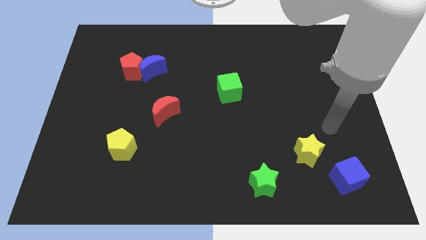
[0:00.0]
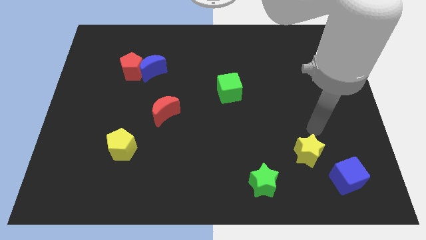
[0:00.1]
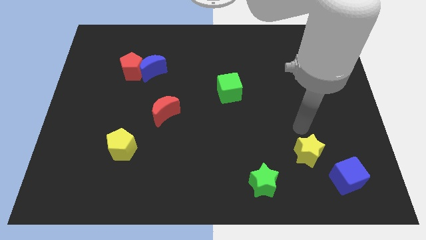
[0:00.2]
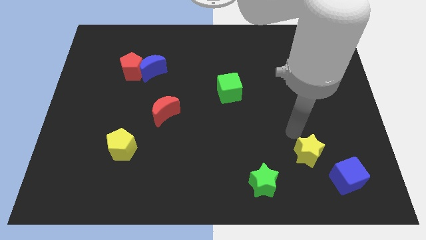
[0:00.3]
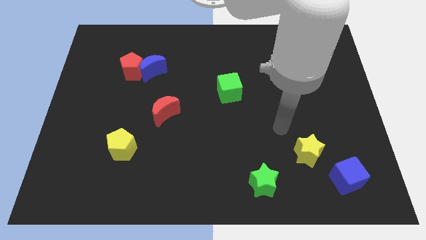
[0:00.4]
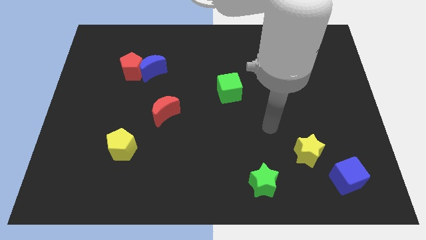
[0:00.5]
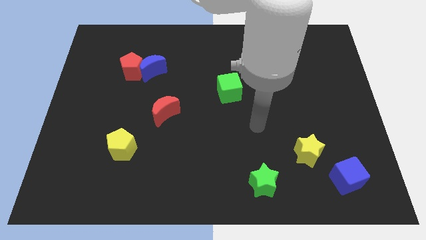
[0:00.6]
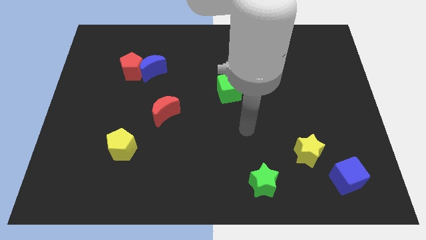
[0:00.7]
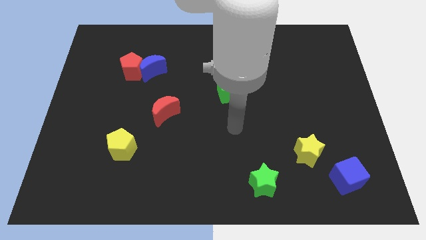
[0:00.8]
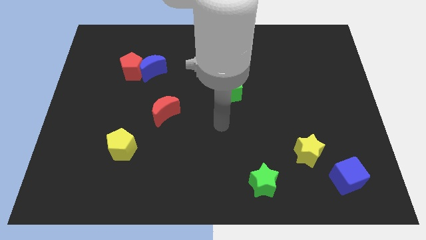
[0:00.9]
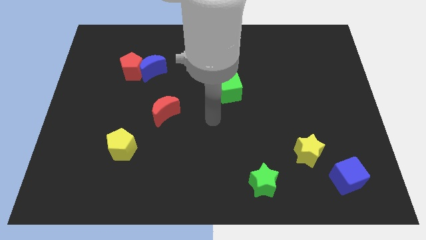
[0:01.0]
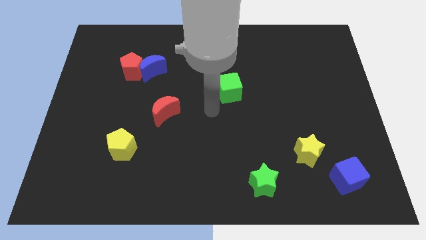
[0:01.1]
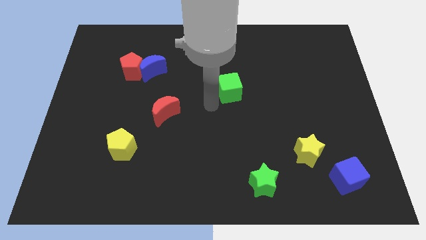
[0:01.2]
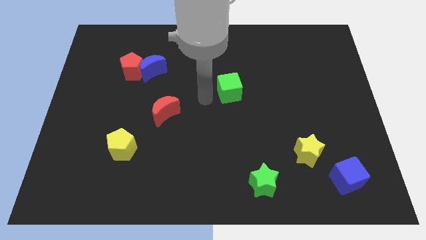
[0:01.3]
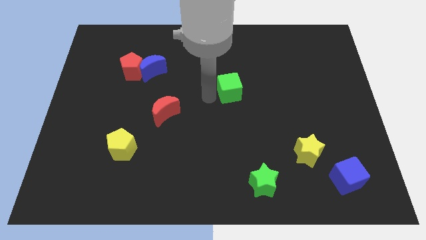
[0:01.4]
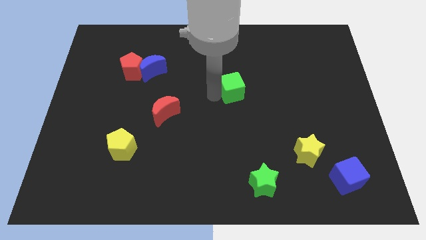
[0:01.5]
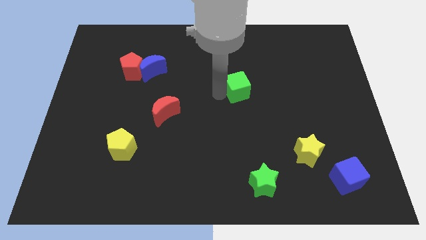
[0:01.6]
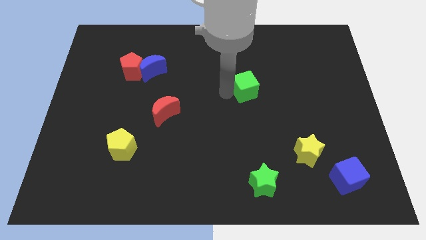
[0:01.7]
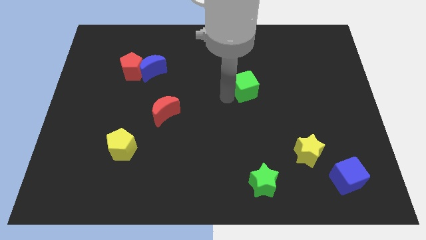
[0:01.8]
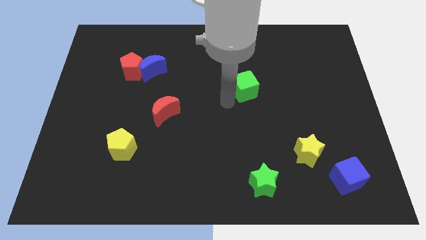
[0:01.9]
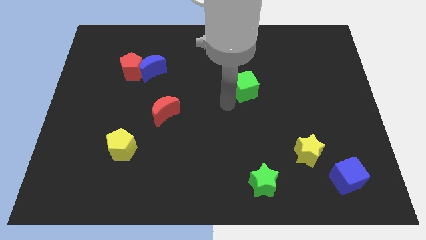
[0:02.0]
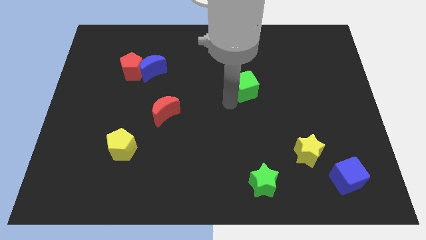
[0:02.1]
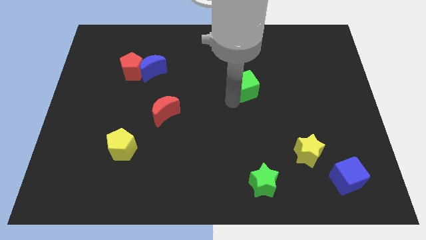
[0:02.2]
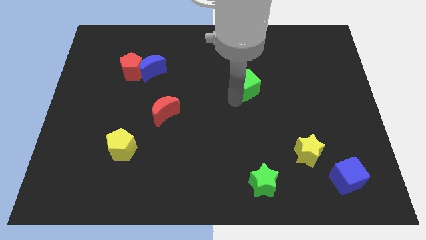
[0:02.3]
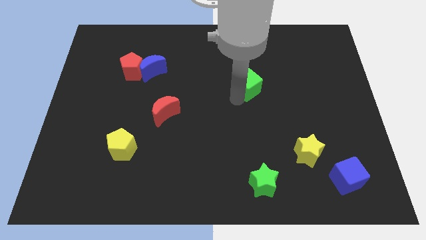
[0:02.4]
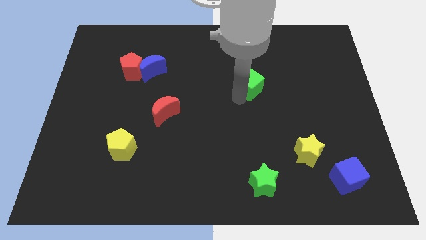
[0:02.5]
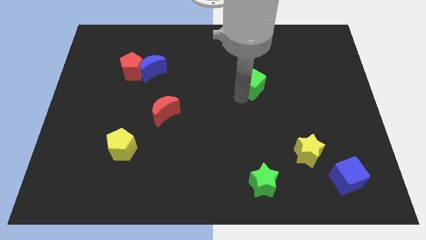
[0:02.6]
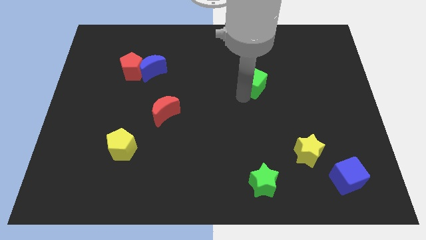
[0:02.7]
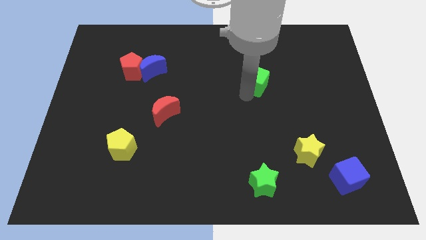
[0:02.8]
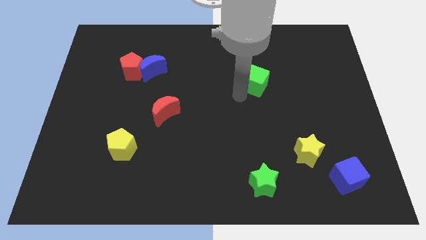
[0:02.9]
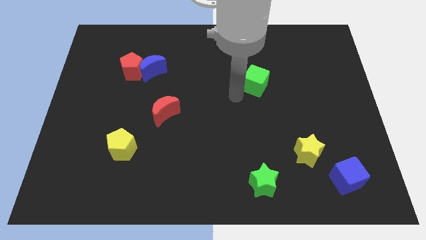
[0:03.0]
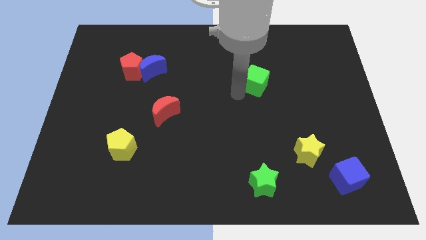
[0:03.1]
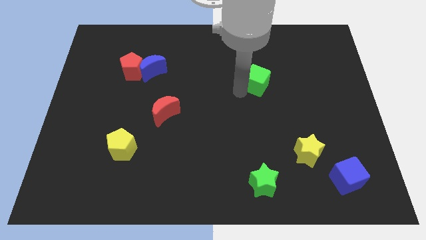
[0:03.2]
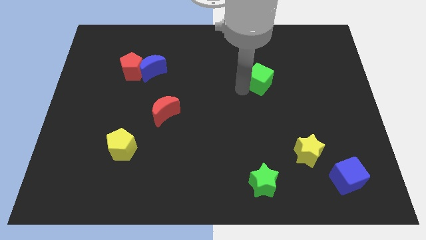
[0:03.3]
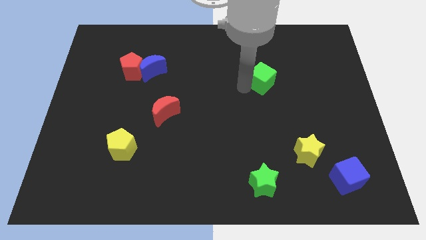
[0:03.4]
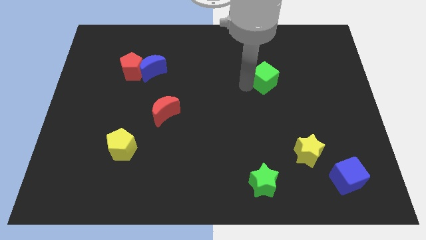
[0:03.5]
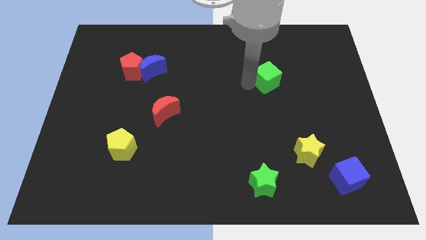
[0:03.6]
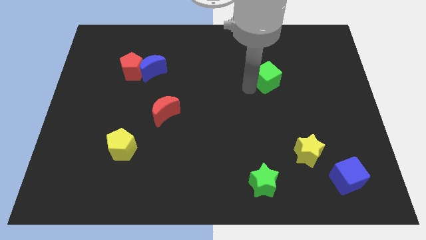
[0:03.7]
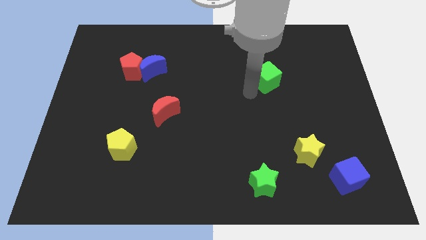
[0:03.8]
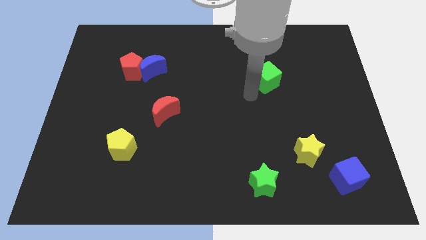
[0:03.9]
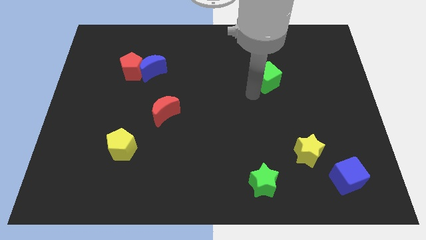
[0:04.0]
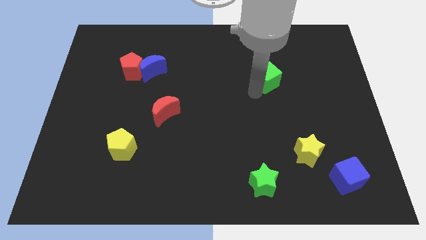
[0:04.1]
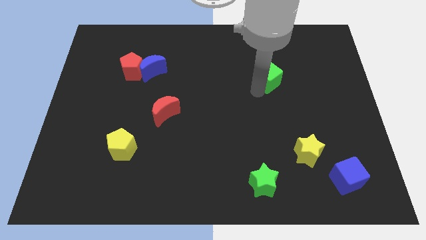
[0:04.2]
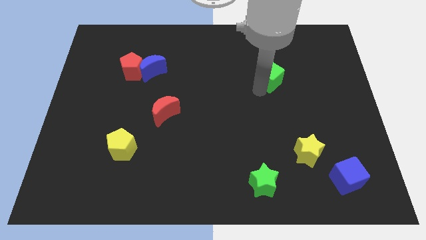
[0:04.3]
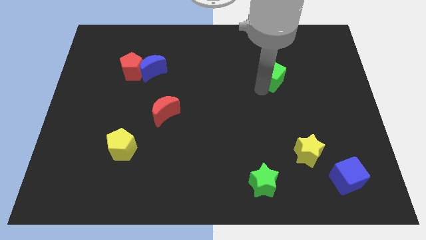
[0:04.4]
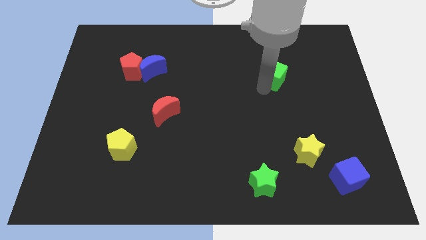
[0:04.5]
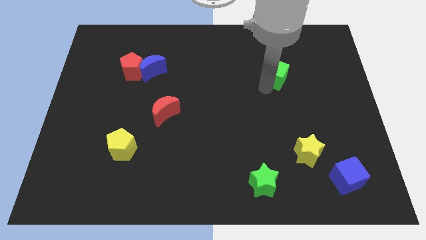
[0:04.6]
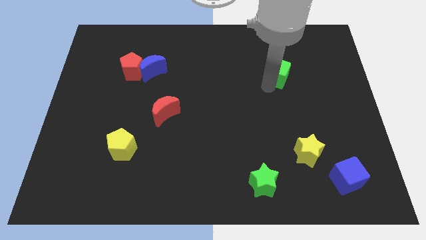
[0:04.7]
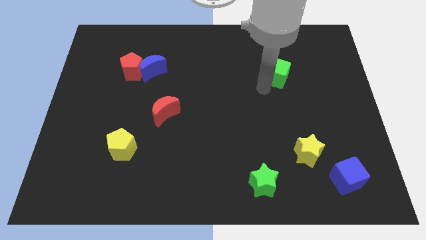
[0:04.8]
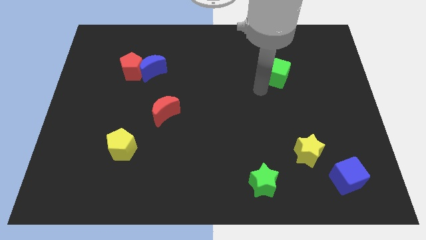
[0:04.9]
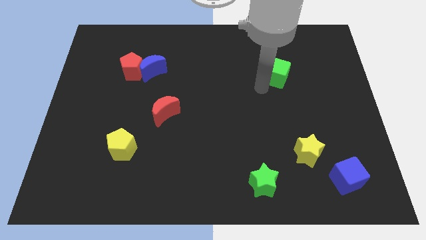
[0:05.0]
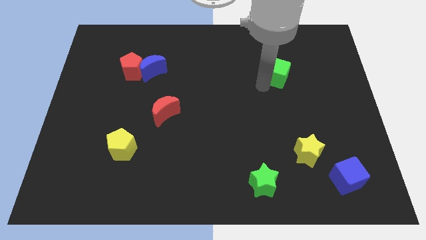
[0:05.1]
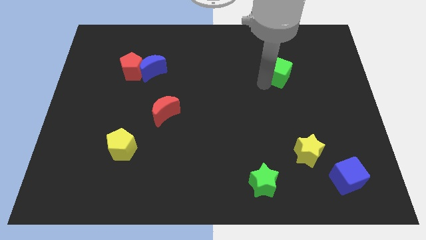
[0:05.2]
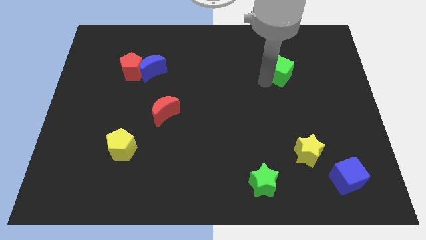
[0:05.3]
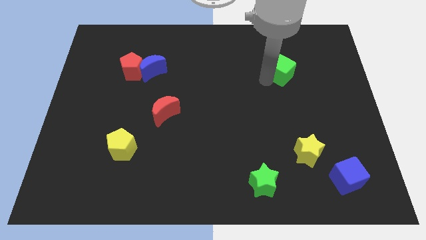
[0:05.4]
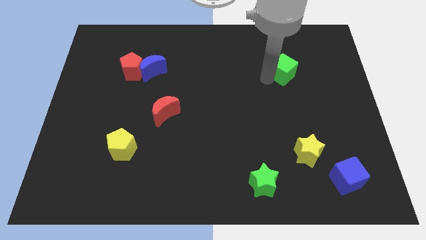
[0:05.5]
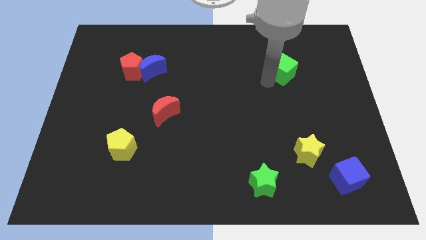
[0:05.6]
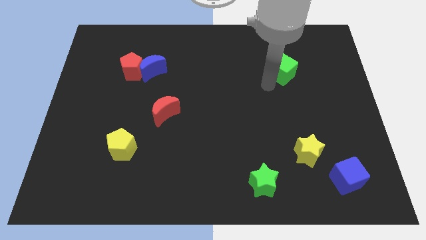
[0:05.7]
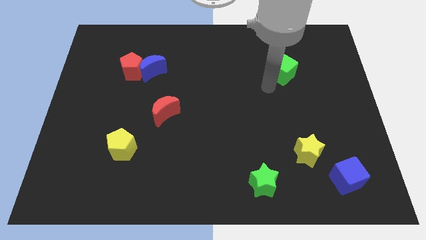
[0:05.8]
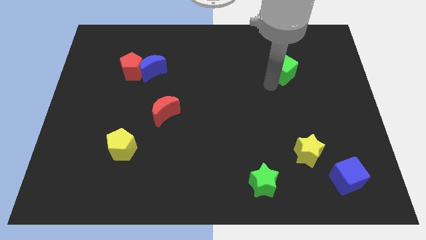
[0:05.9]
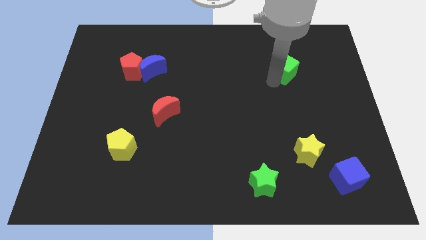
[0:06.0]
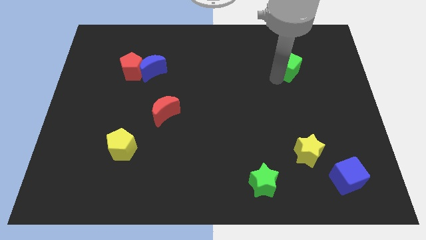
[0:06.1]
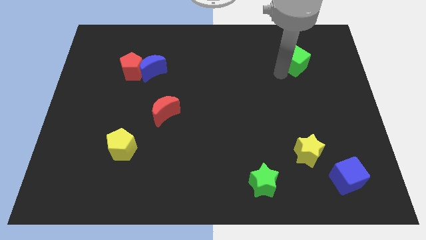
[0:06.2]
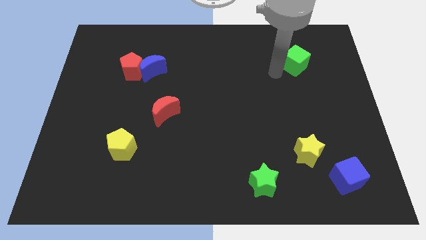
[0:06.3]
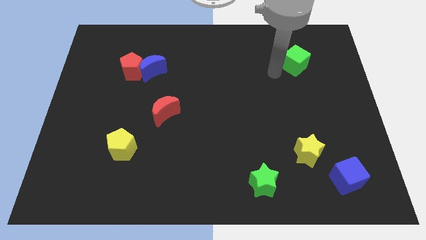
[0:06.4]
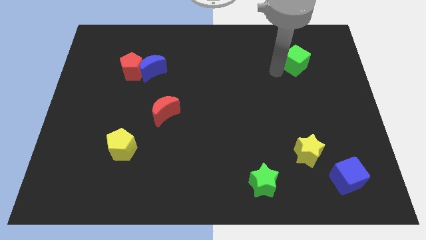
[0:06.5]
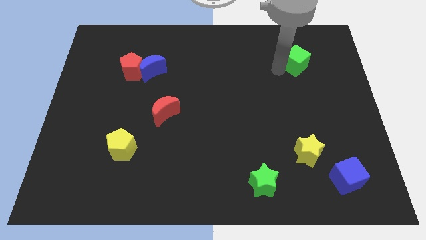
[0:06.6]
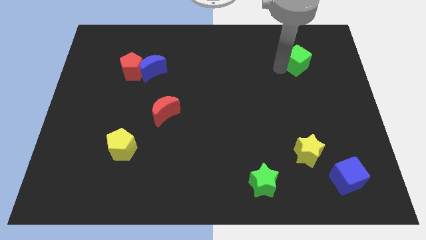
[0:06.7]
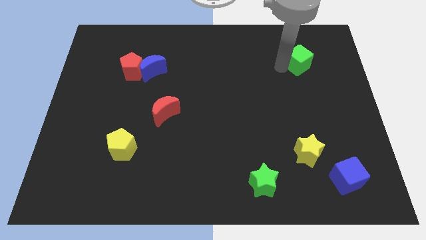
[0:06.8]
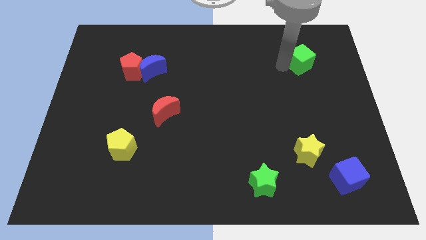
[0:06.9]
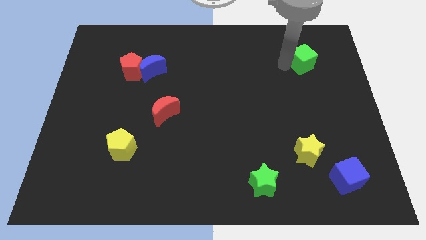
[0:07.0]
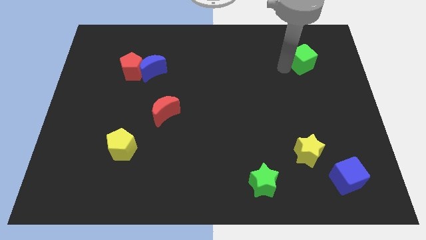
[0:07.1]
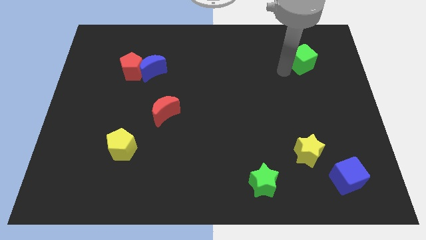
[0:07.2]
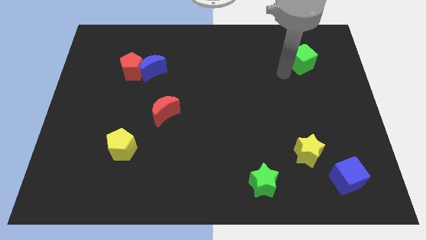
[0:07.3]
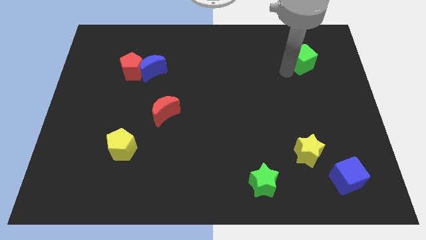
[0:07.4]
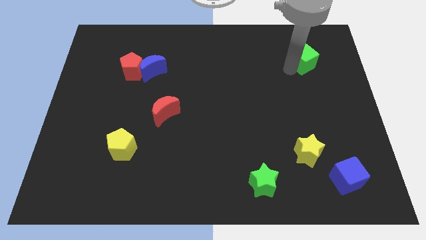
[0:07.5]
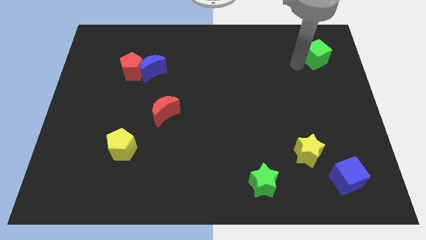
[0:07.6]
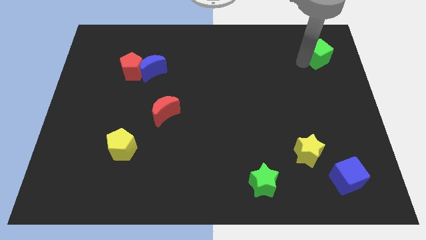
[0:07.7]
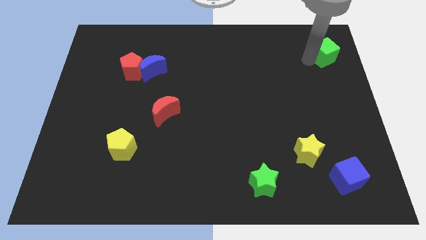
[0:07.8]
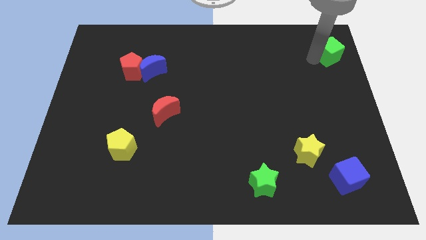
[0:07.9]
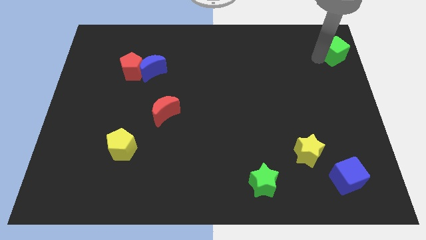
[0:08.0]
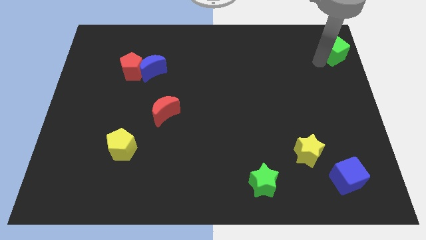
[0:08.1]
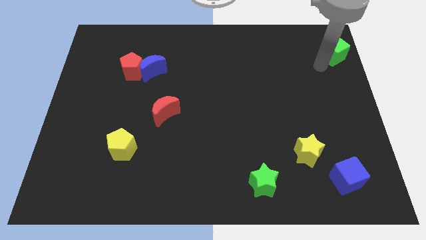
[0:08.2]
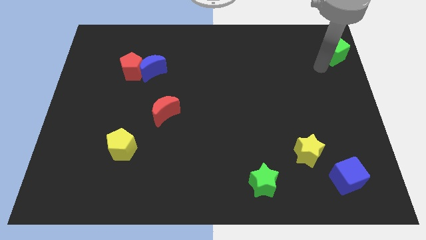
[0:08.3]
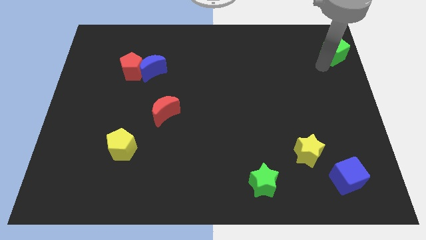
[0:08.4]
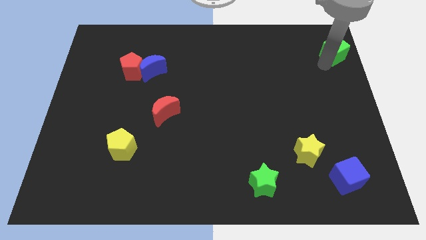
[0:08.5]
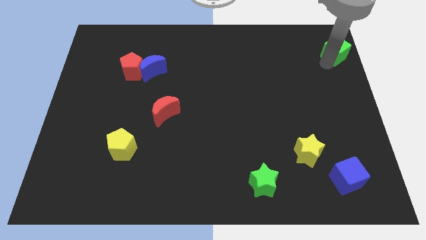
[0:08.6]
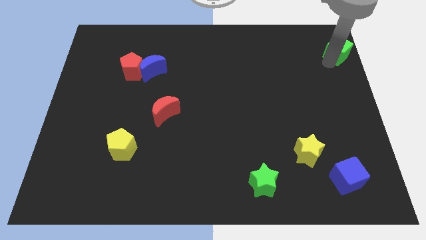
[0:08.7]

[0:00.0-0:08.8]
push the green cube to the top right

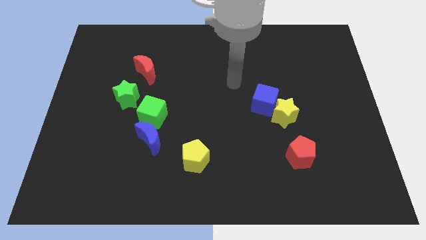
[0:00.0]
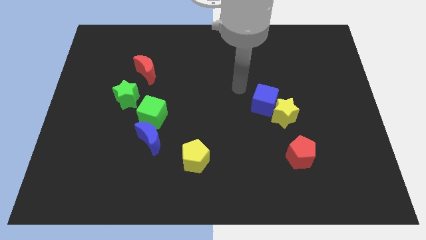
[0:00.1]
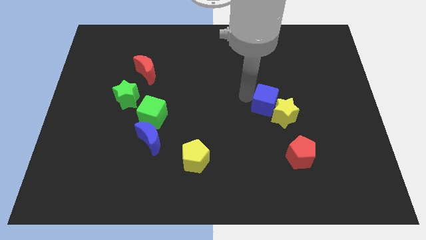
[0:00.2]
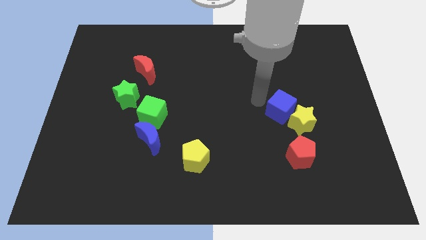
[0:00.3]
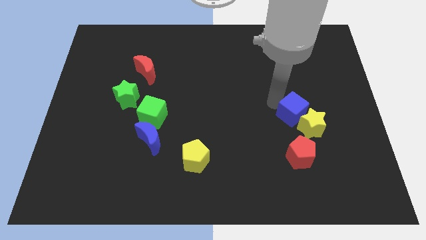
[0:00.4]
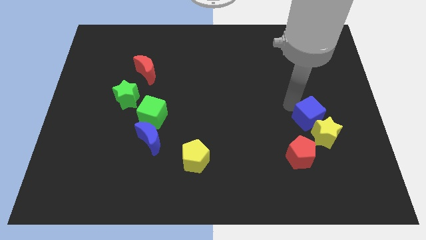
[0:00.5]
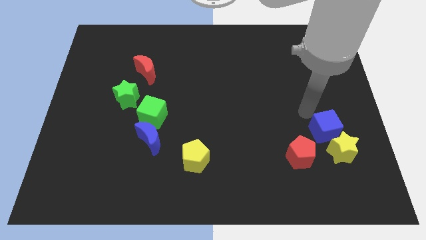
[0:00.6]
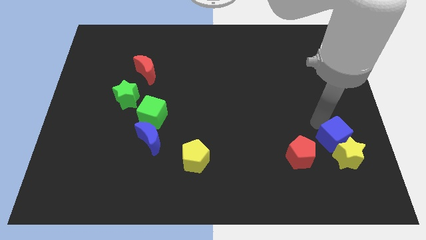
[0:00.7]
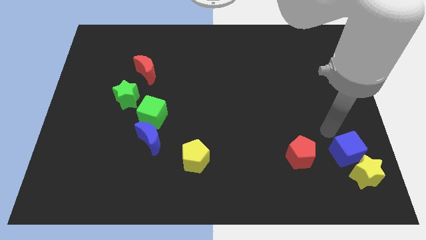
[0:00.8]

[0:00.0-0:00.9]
put the yellow star to the bottom right of the board
